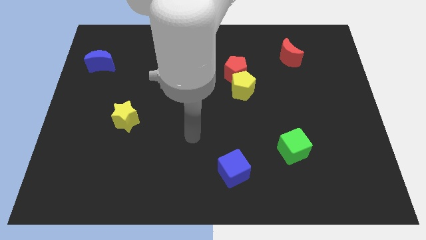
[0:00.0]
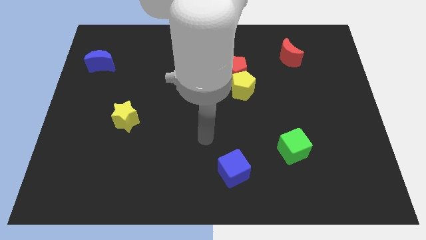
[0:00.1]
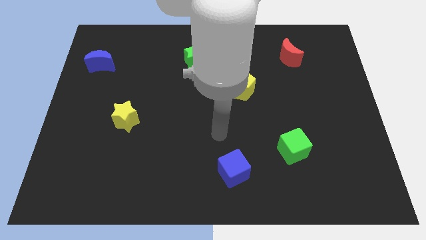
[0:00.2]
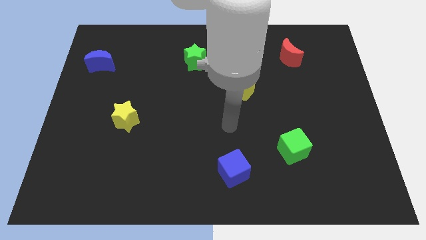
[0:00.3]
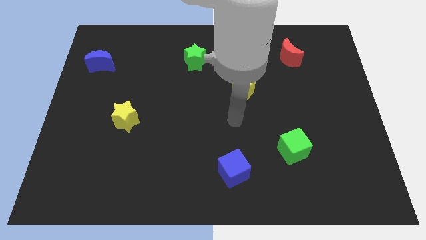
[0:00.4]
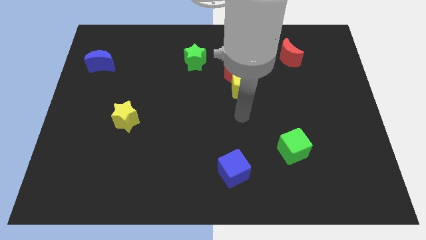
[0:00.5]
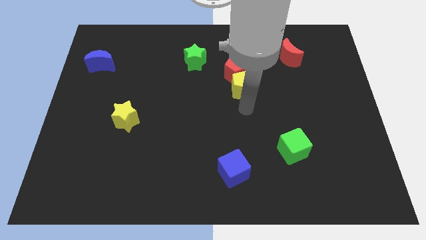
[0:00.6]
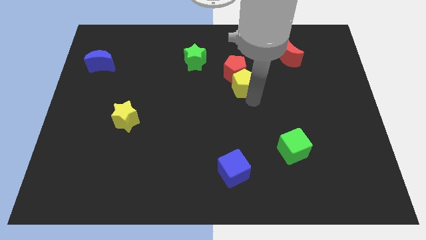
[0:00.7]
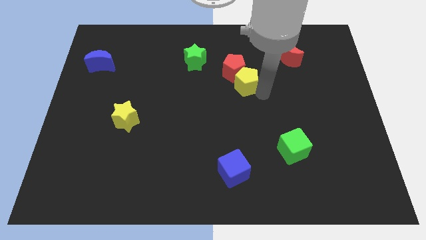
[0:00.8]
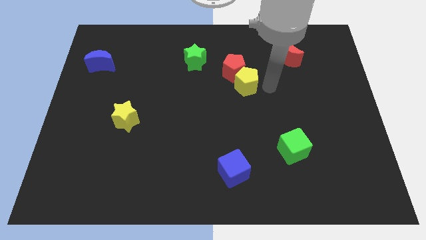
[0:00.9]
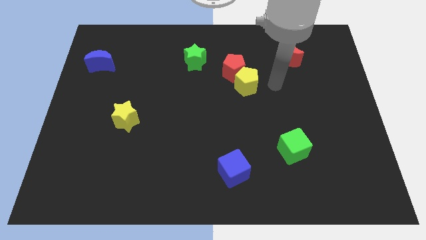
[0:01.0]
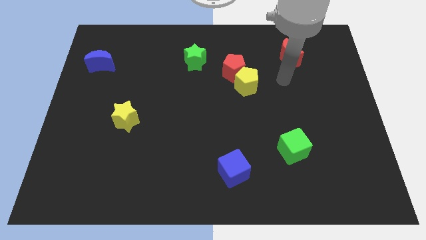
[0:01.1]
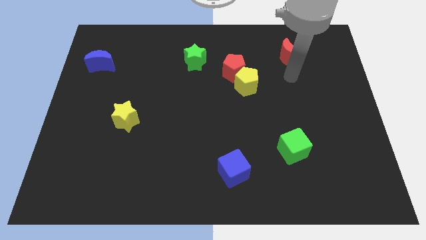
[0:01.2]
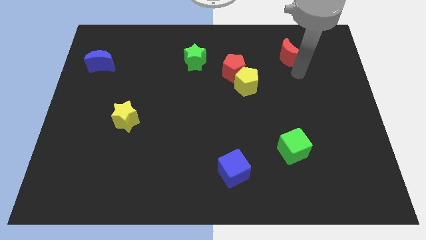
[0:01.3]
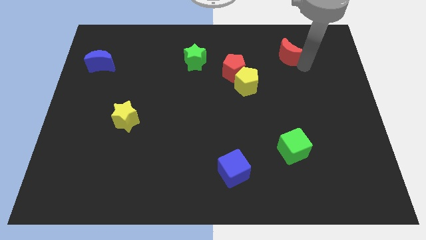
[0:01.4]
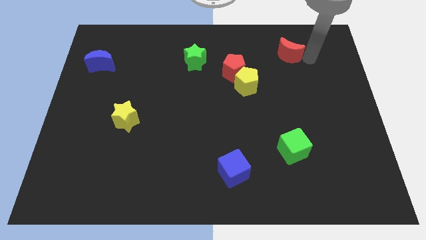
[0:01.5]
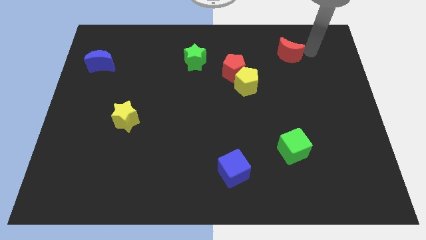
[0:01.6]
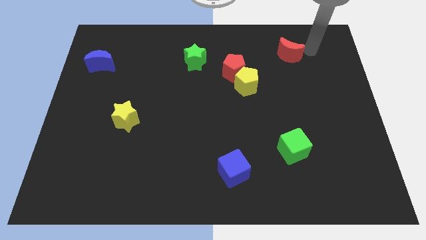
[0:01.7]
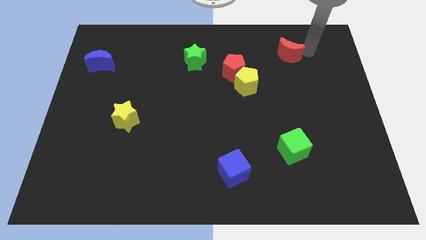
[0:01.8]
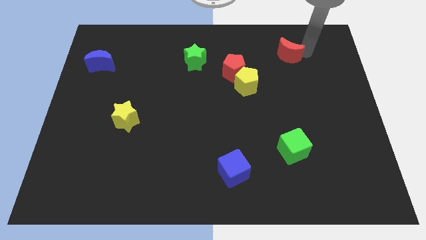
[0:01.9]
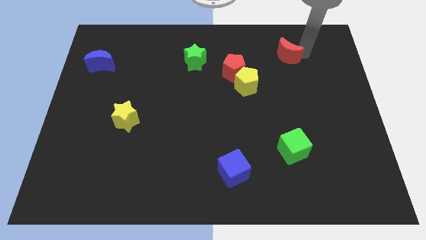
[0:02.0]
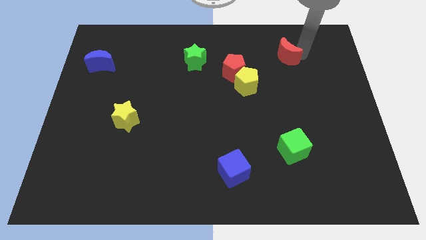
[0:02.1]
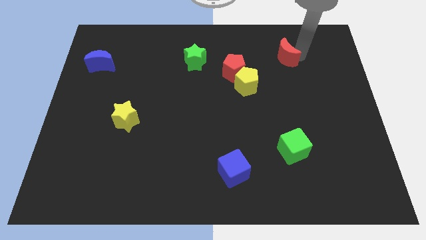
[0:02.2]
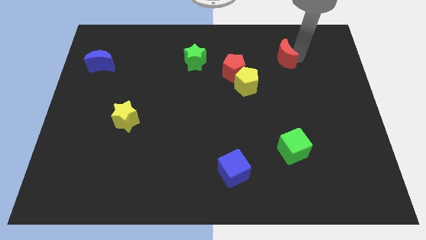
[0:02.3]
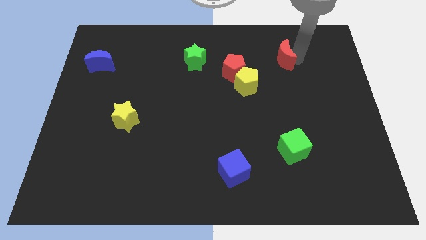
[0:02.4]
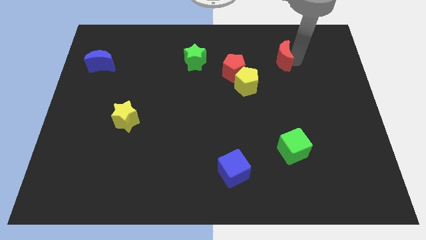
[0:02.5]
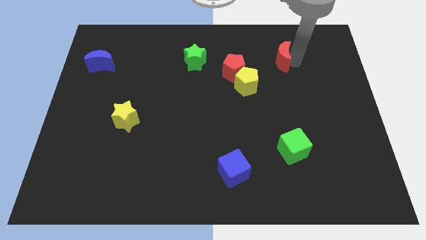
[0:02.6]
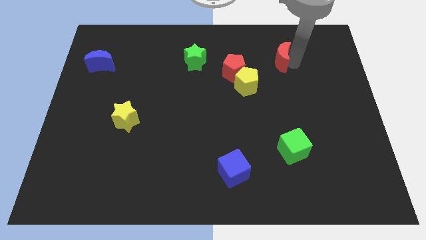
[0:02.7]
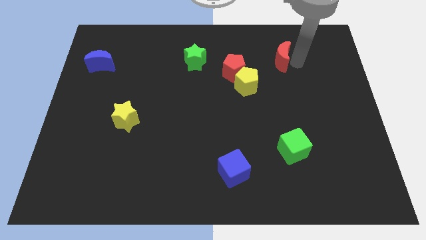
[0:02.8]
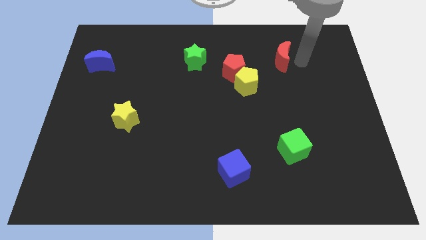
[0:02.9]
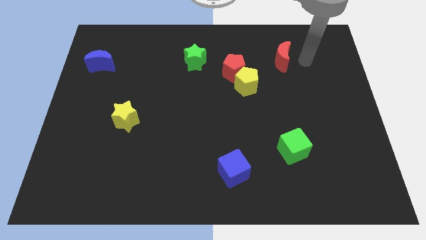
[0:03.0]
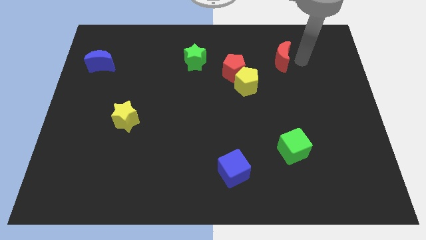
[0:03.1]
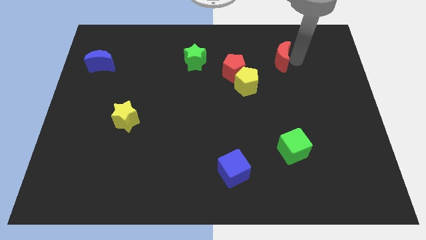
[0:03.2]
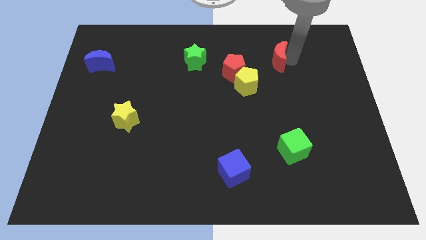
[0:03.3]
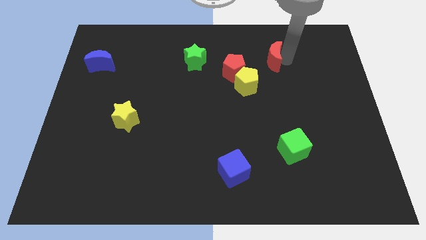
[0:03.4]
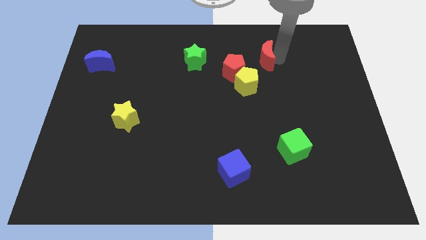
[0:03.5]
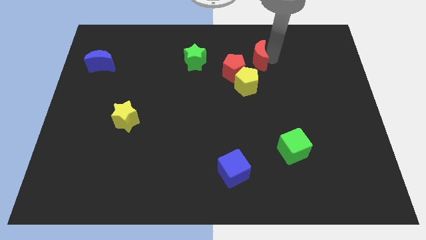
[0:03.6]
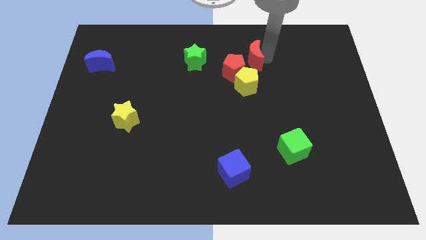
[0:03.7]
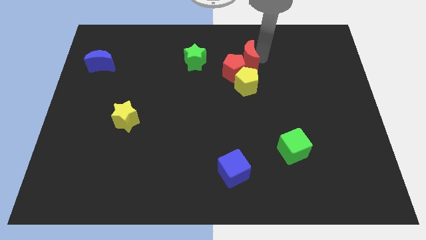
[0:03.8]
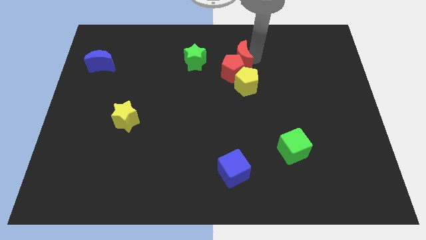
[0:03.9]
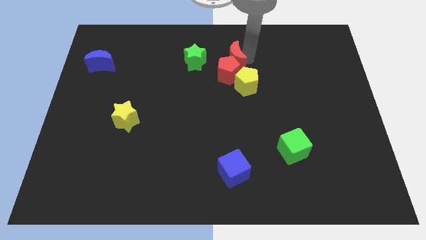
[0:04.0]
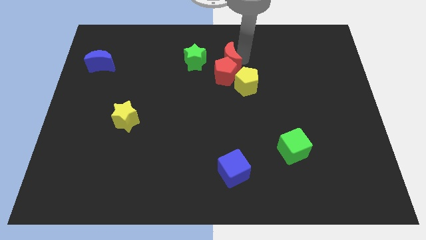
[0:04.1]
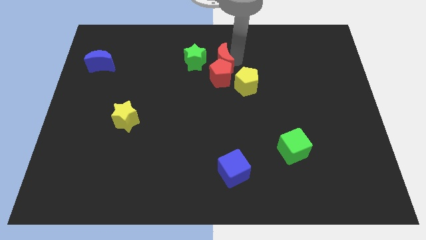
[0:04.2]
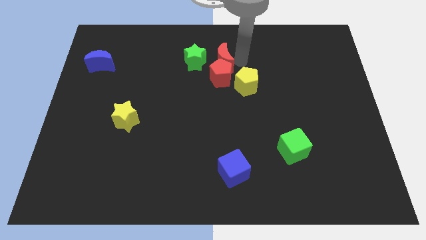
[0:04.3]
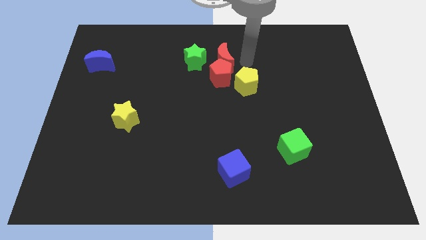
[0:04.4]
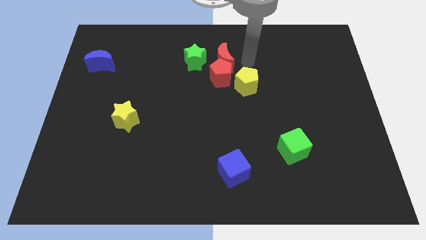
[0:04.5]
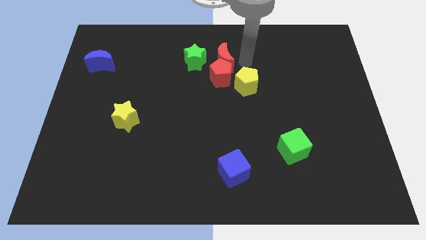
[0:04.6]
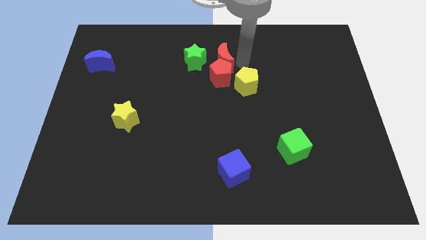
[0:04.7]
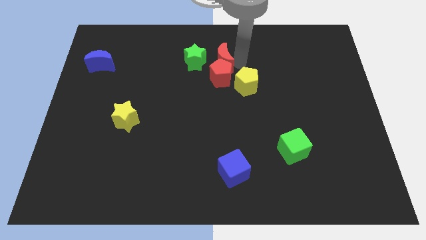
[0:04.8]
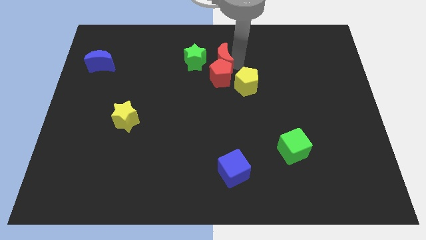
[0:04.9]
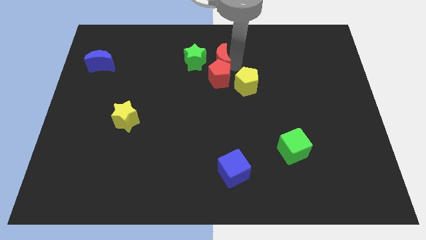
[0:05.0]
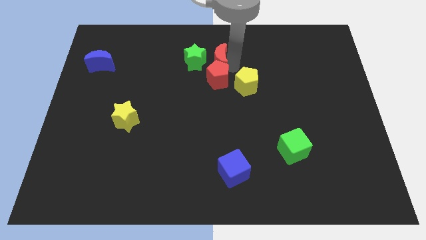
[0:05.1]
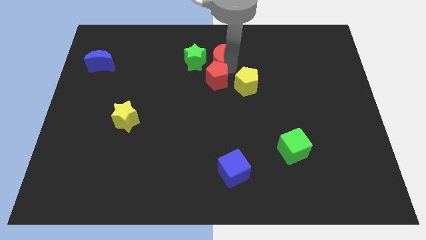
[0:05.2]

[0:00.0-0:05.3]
move the red moon next to the green star

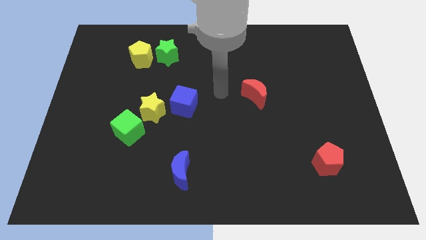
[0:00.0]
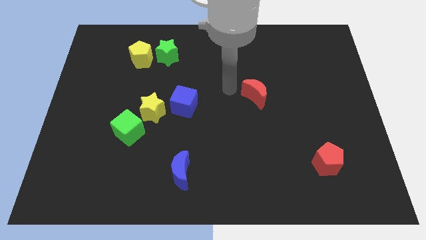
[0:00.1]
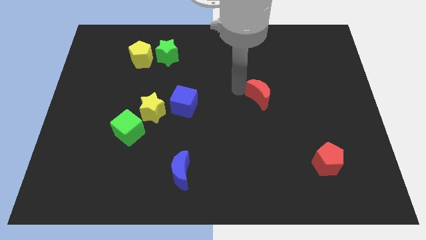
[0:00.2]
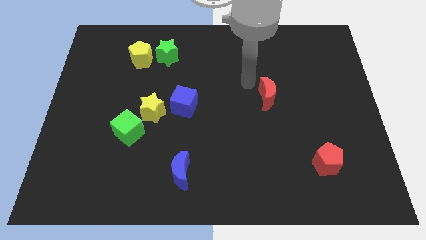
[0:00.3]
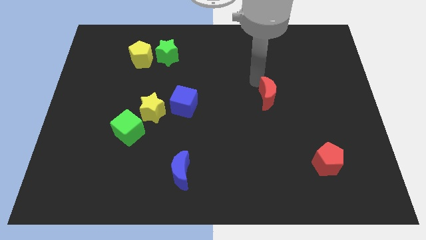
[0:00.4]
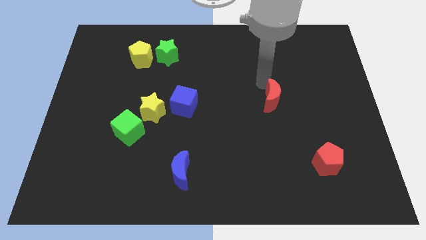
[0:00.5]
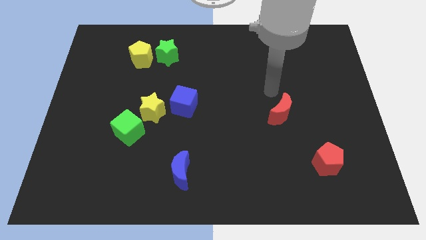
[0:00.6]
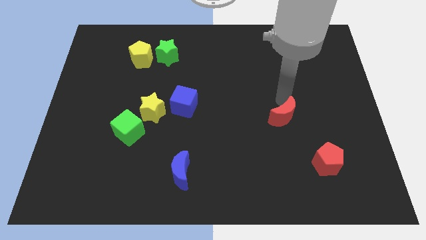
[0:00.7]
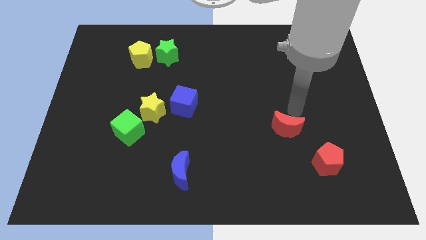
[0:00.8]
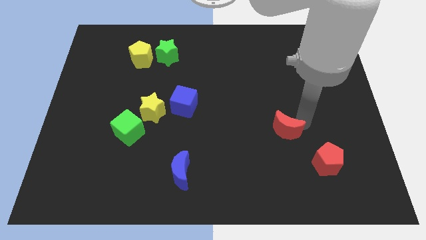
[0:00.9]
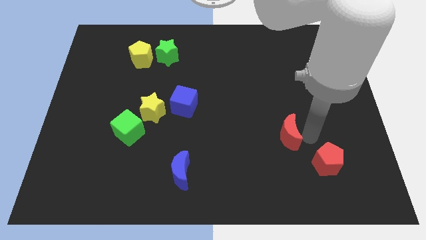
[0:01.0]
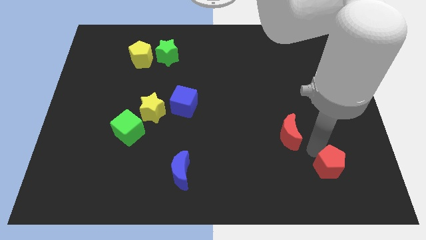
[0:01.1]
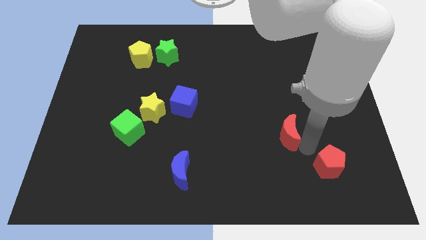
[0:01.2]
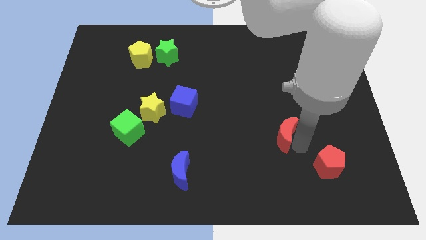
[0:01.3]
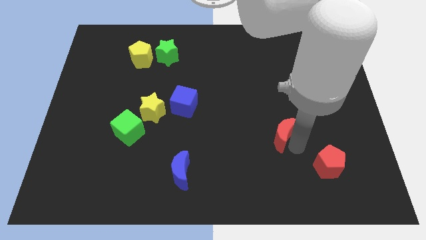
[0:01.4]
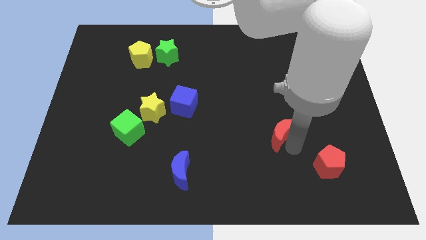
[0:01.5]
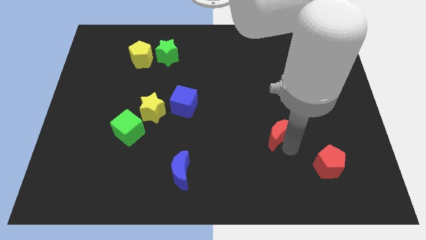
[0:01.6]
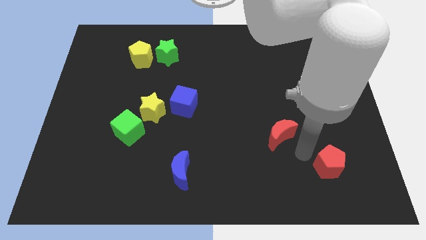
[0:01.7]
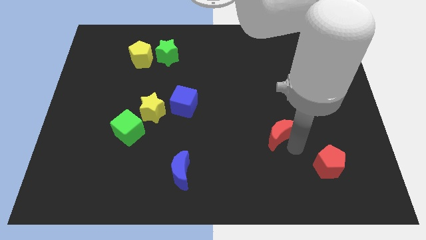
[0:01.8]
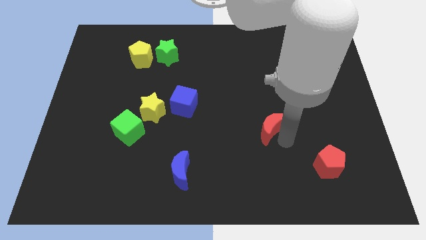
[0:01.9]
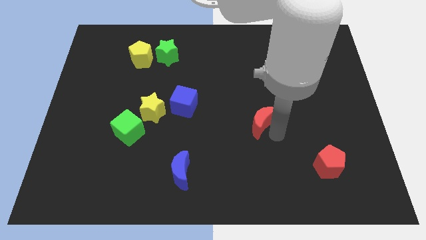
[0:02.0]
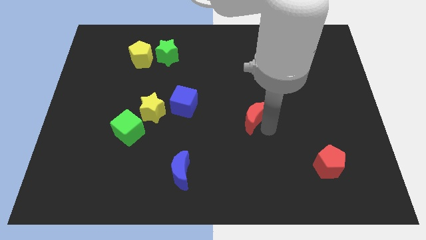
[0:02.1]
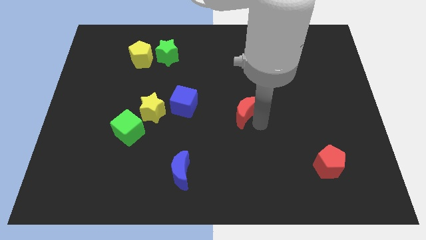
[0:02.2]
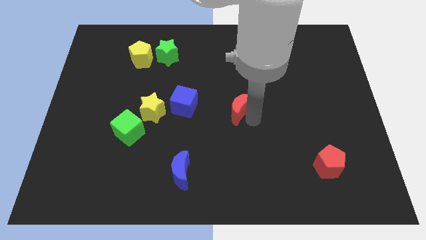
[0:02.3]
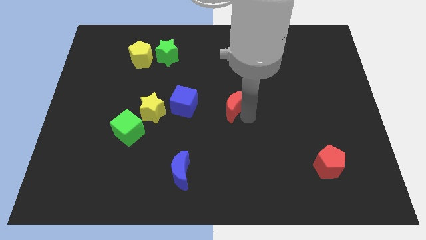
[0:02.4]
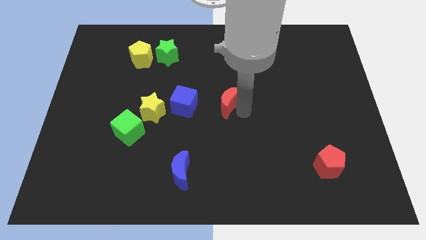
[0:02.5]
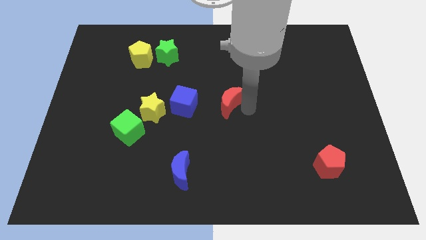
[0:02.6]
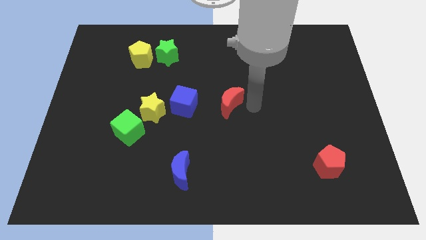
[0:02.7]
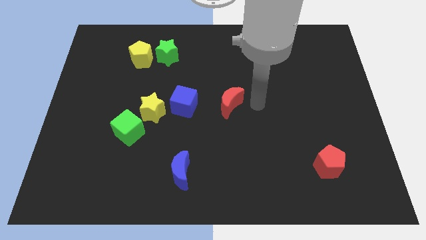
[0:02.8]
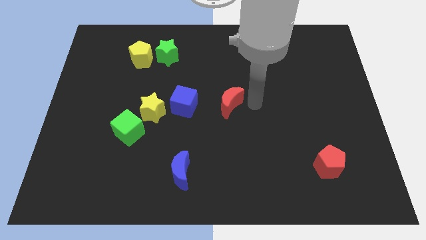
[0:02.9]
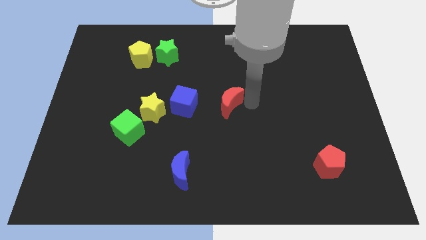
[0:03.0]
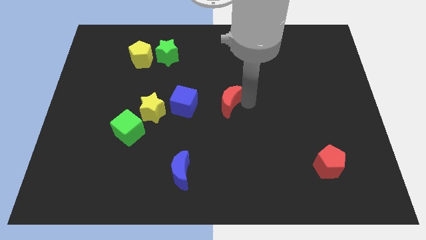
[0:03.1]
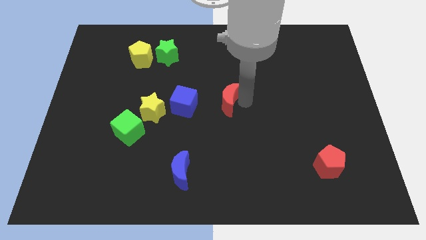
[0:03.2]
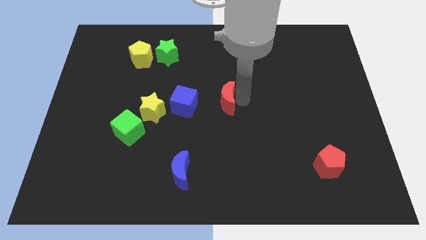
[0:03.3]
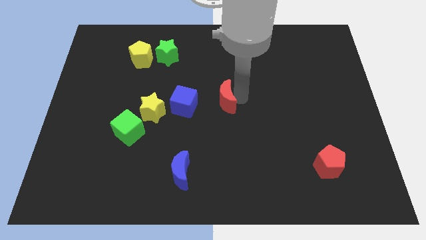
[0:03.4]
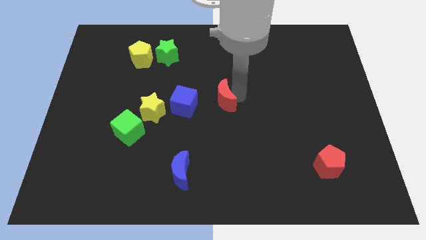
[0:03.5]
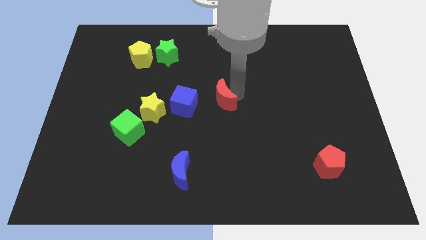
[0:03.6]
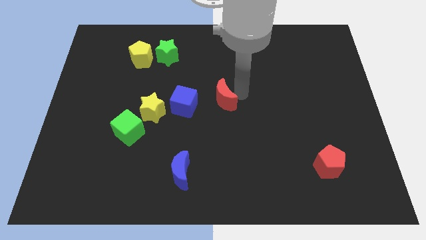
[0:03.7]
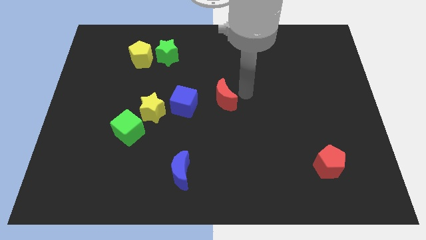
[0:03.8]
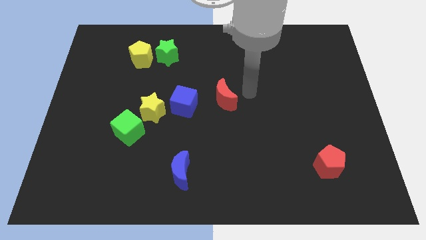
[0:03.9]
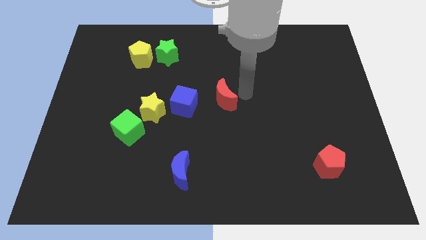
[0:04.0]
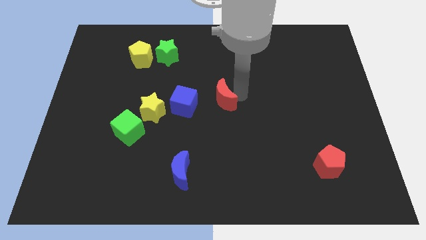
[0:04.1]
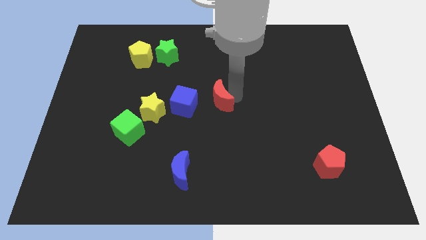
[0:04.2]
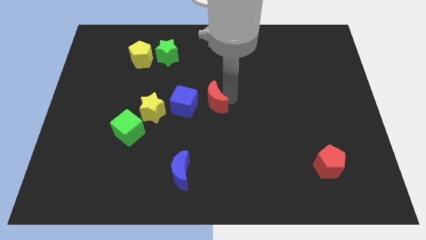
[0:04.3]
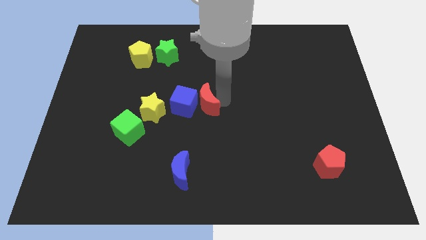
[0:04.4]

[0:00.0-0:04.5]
slide the red moon to the blue cube
